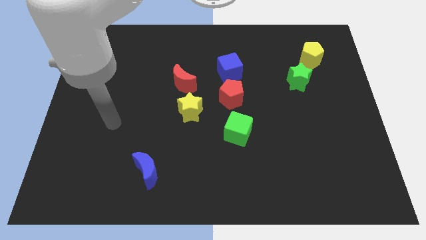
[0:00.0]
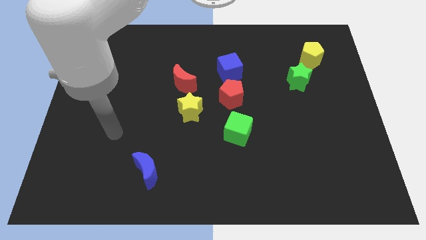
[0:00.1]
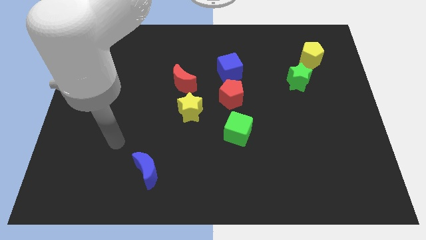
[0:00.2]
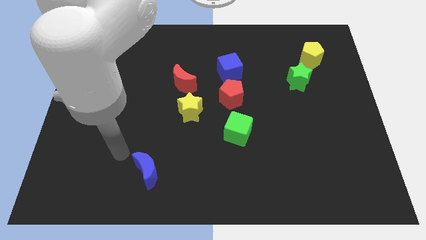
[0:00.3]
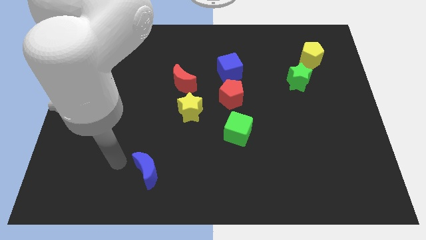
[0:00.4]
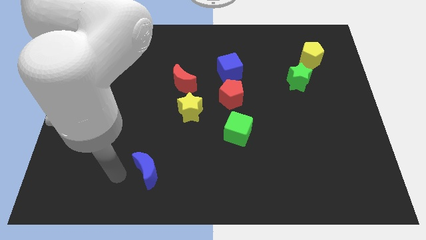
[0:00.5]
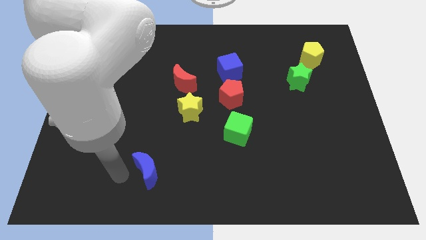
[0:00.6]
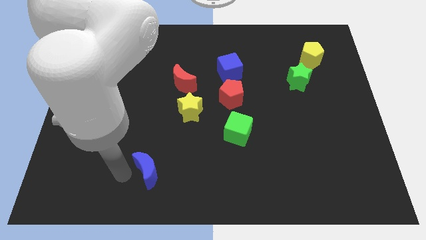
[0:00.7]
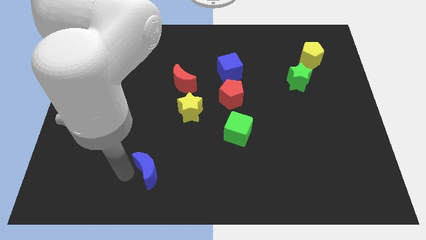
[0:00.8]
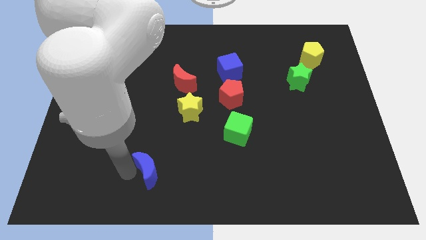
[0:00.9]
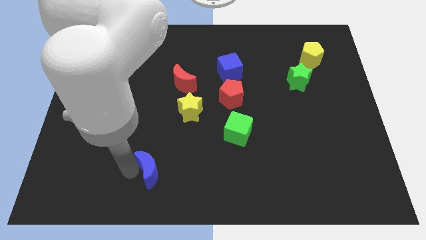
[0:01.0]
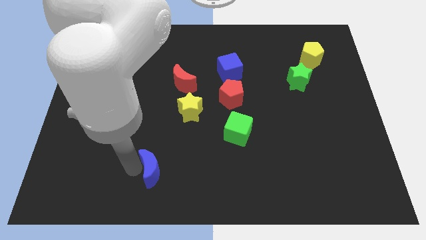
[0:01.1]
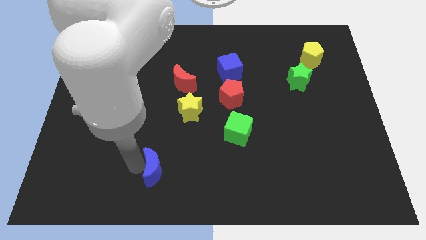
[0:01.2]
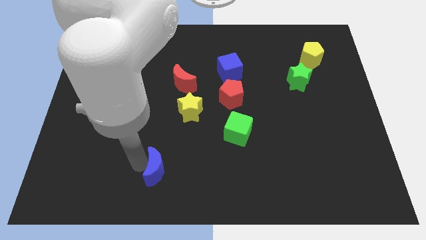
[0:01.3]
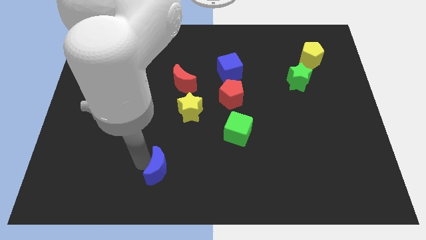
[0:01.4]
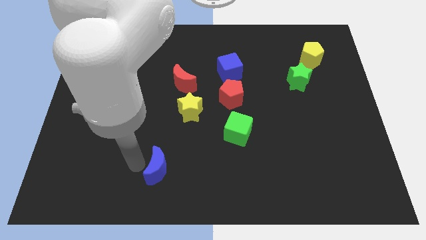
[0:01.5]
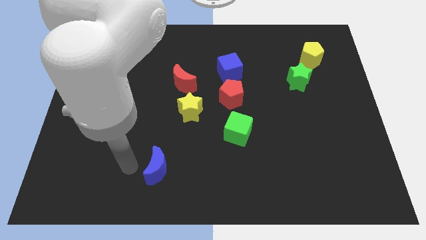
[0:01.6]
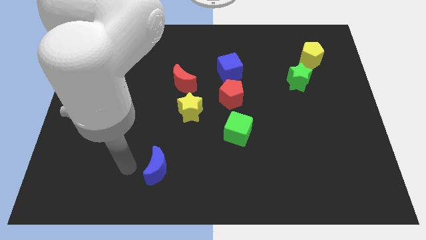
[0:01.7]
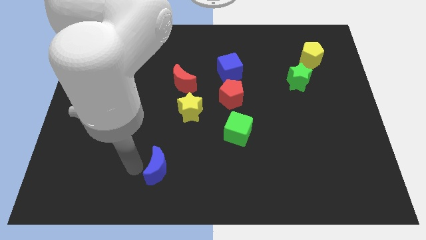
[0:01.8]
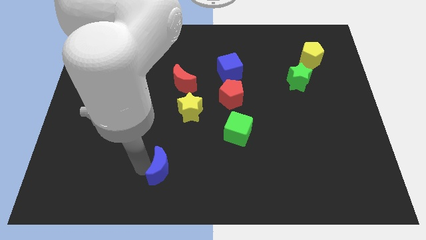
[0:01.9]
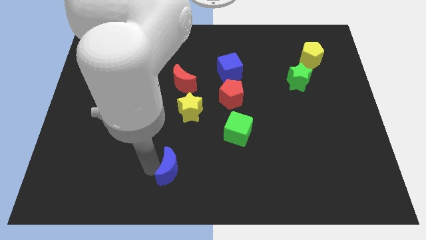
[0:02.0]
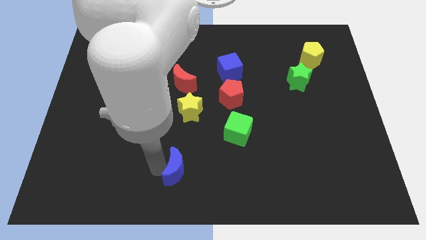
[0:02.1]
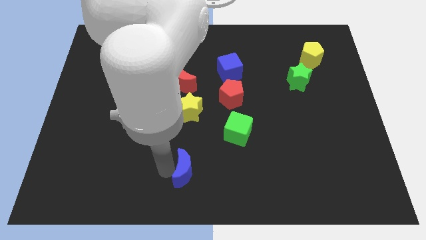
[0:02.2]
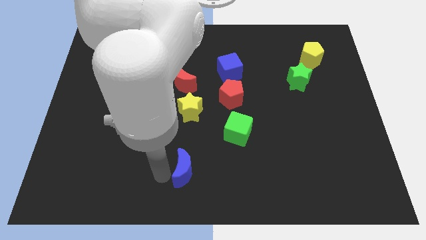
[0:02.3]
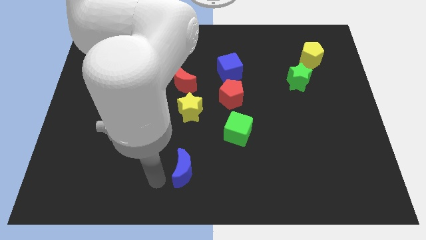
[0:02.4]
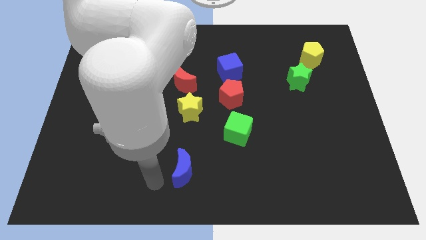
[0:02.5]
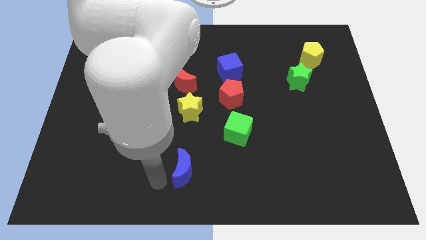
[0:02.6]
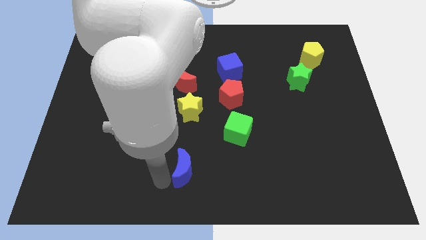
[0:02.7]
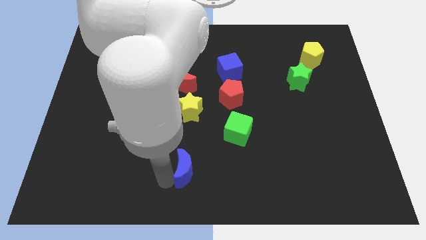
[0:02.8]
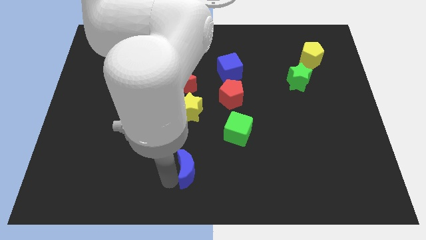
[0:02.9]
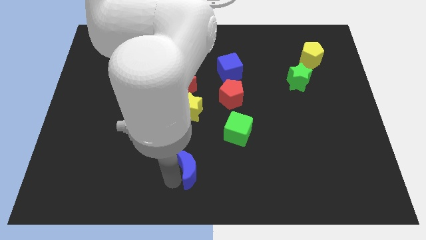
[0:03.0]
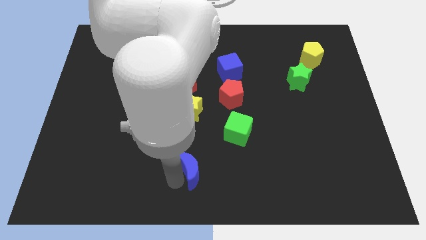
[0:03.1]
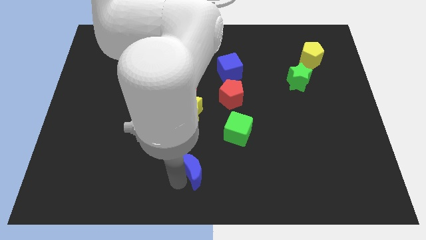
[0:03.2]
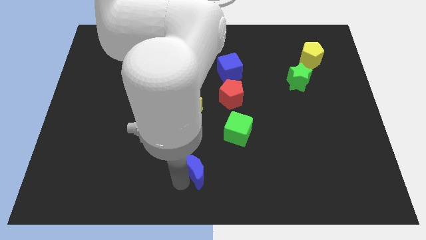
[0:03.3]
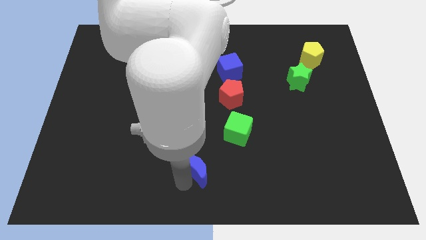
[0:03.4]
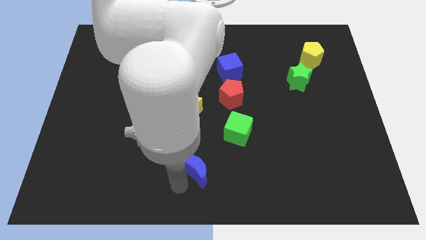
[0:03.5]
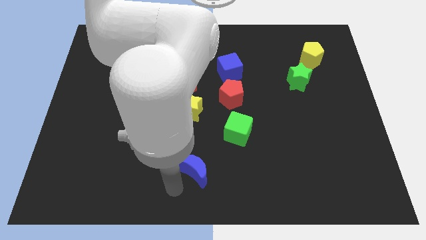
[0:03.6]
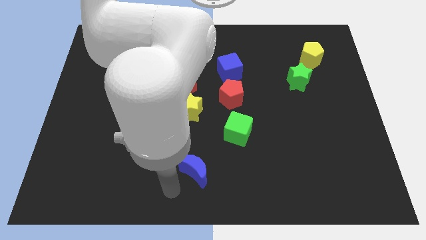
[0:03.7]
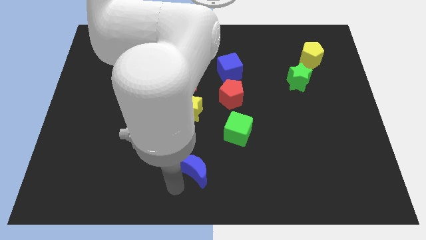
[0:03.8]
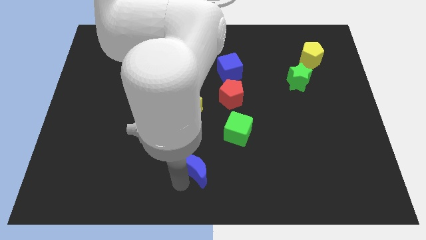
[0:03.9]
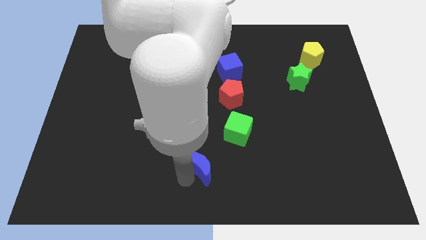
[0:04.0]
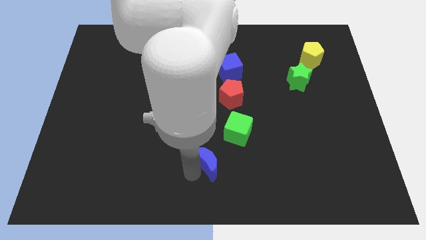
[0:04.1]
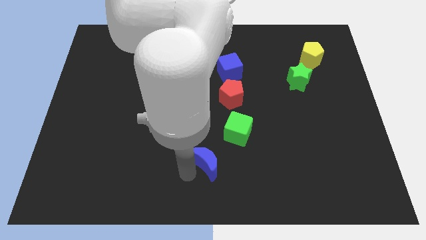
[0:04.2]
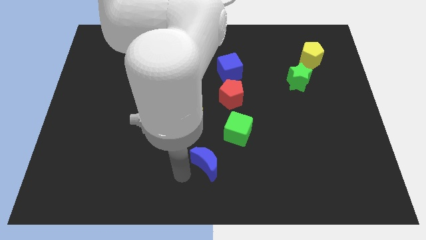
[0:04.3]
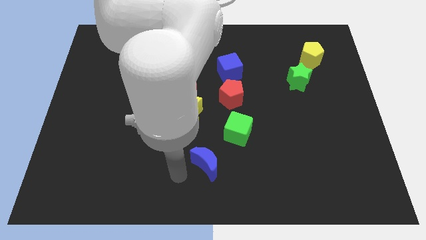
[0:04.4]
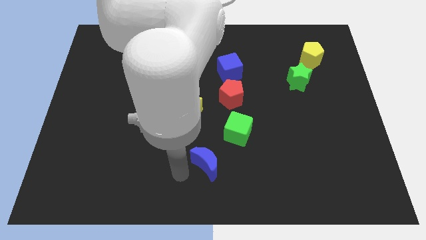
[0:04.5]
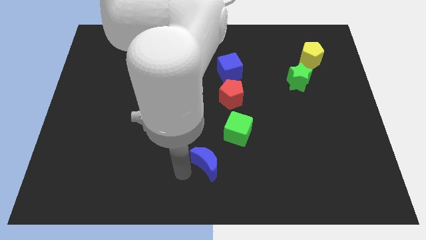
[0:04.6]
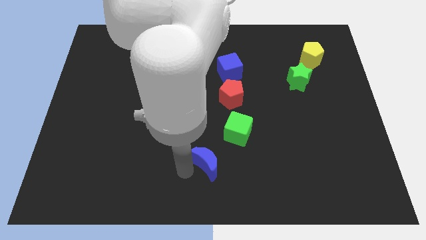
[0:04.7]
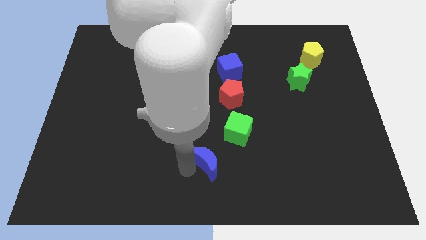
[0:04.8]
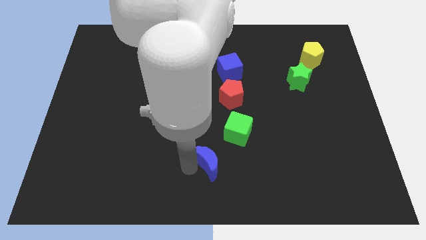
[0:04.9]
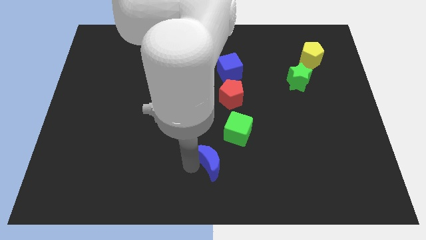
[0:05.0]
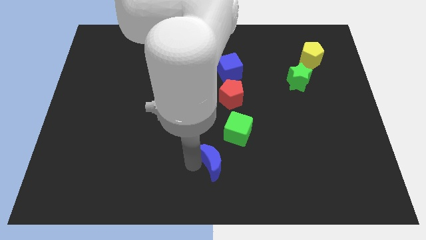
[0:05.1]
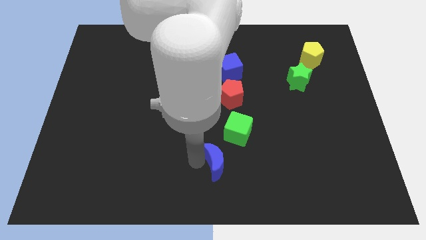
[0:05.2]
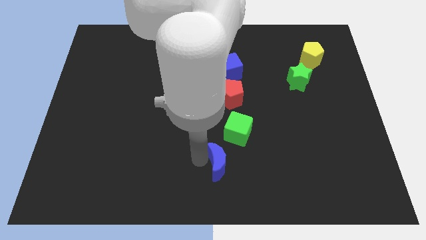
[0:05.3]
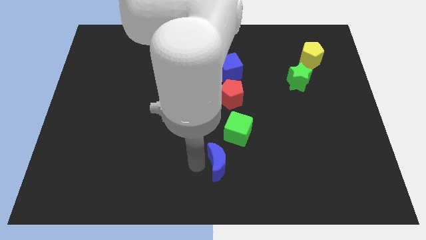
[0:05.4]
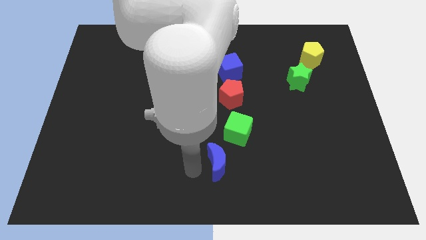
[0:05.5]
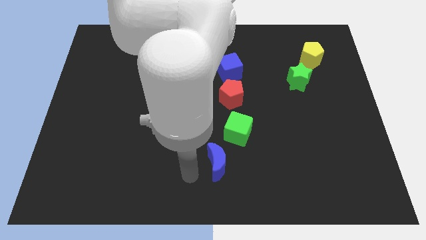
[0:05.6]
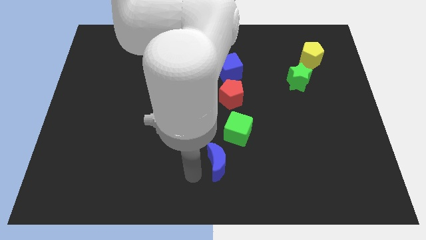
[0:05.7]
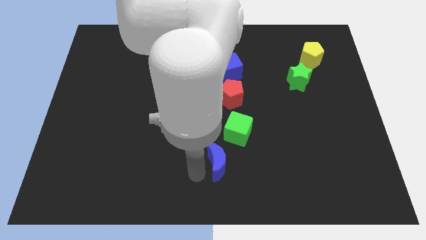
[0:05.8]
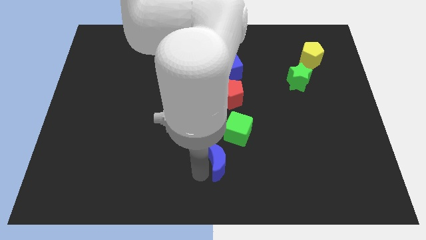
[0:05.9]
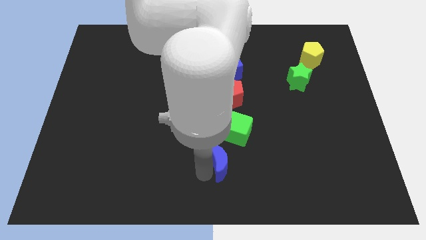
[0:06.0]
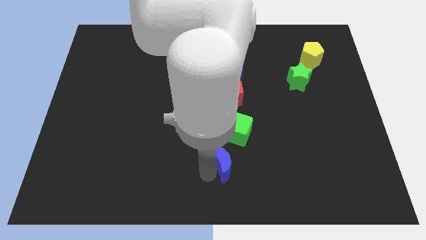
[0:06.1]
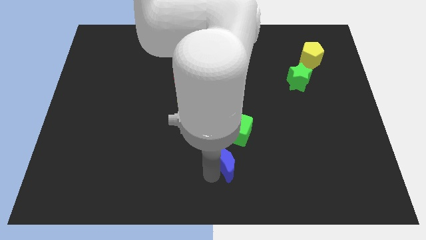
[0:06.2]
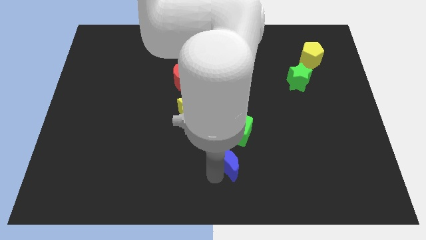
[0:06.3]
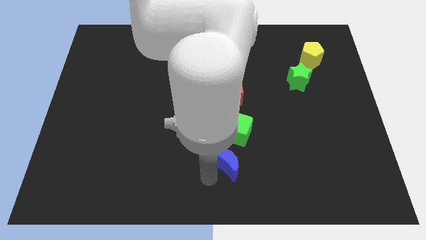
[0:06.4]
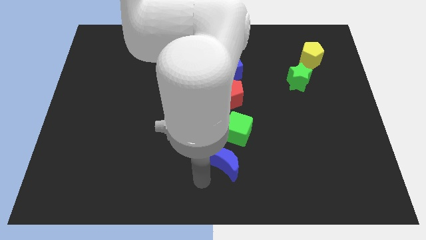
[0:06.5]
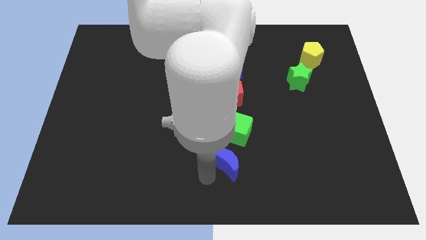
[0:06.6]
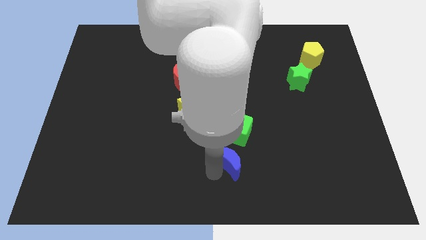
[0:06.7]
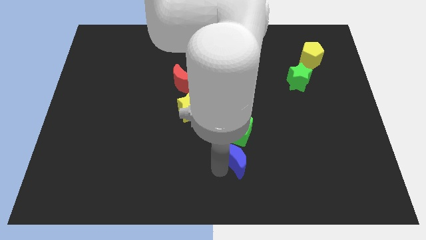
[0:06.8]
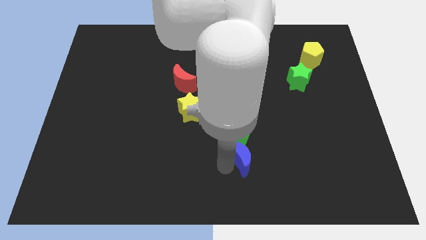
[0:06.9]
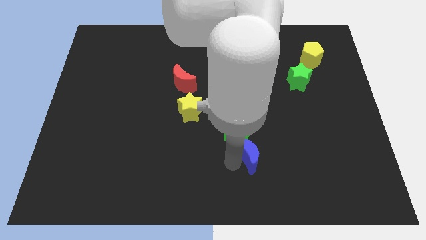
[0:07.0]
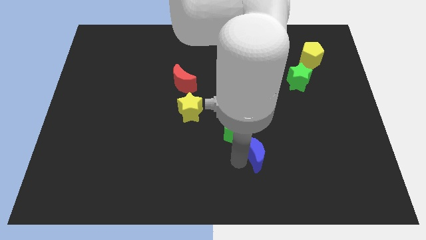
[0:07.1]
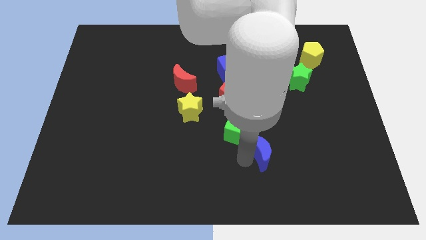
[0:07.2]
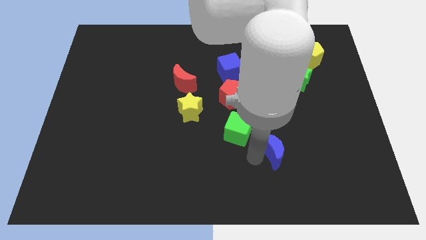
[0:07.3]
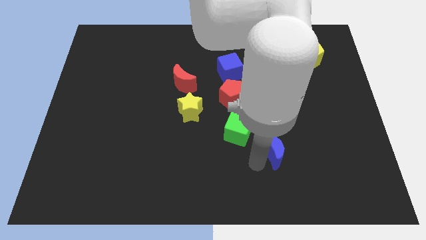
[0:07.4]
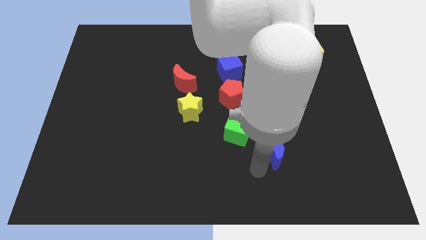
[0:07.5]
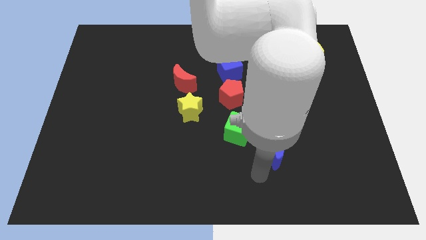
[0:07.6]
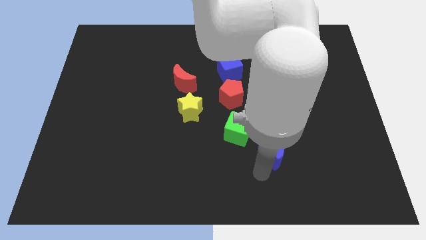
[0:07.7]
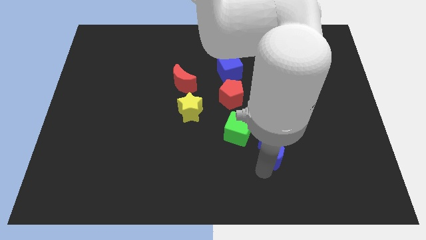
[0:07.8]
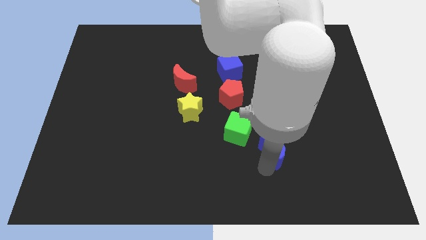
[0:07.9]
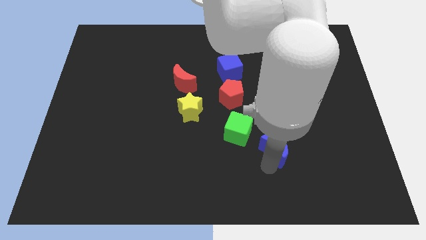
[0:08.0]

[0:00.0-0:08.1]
put the blue moon just right of the green cube
